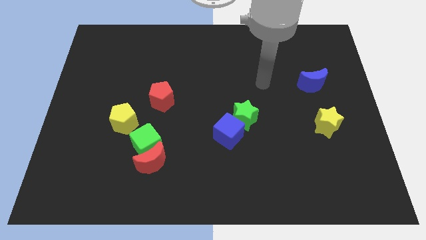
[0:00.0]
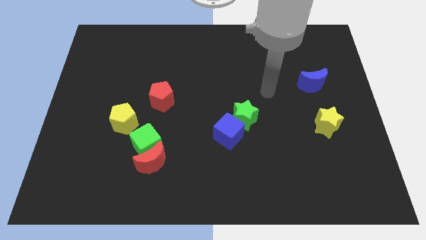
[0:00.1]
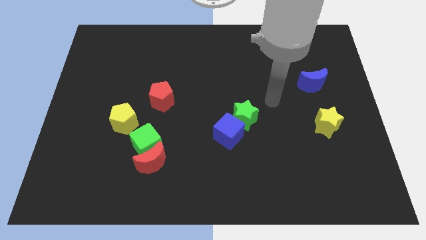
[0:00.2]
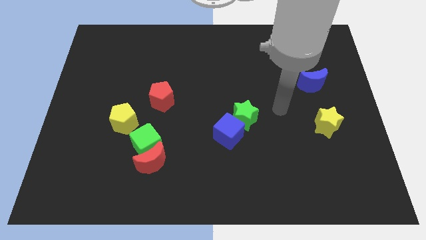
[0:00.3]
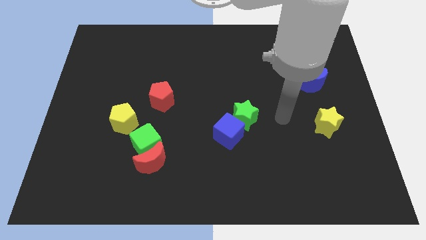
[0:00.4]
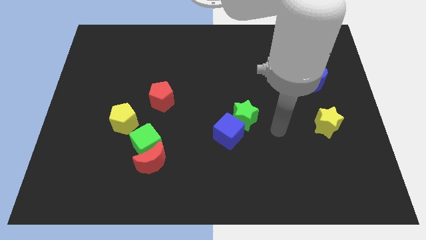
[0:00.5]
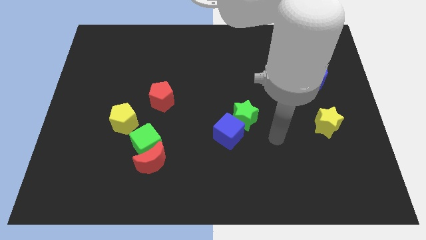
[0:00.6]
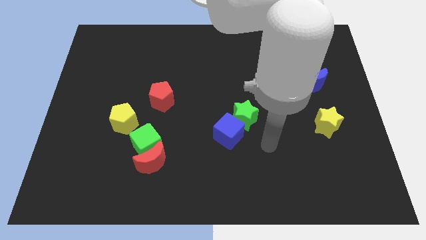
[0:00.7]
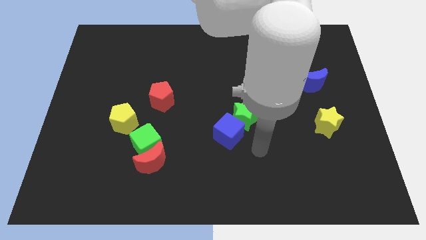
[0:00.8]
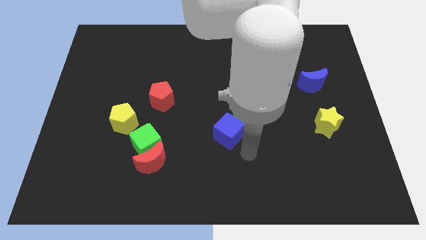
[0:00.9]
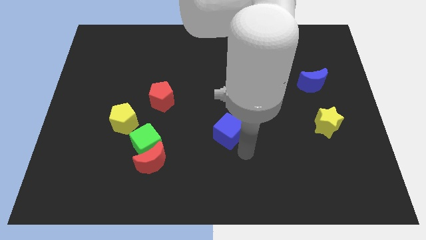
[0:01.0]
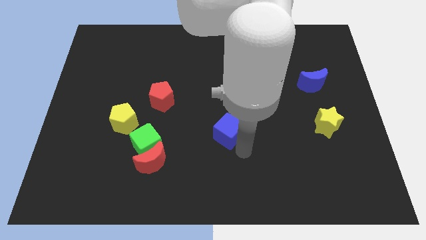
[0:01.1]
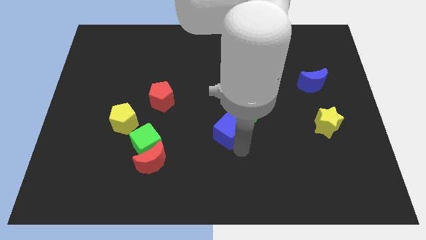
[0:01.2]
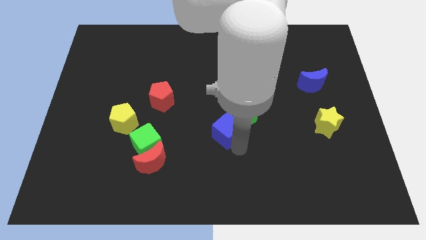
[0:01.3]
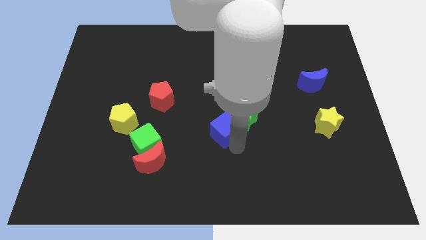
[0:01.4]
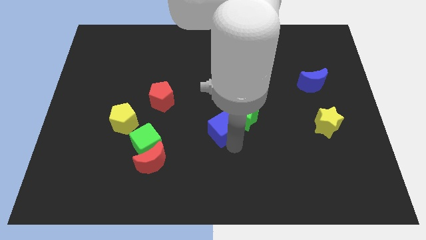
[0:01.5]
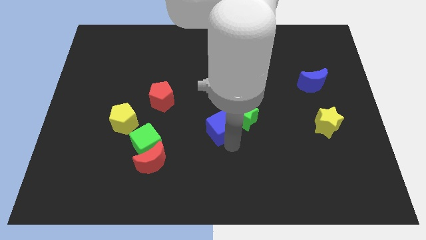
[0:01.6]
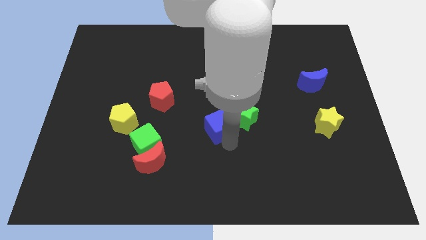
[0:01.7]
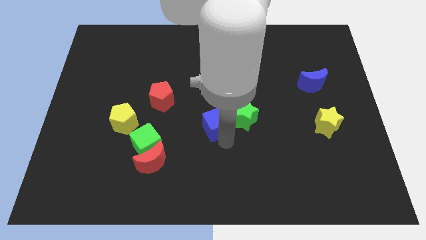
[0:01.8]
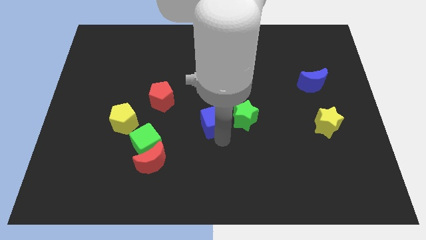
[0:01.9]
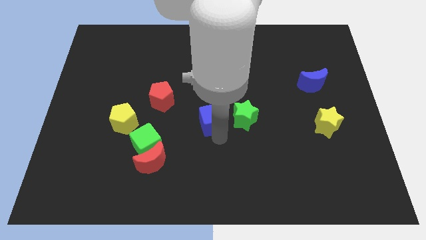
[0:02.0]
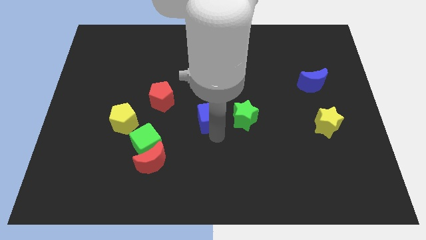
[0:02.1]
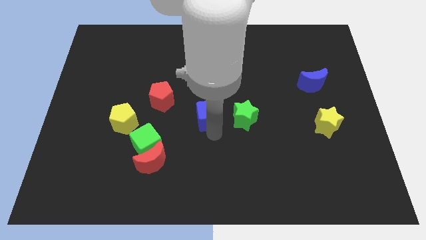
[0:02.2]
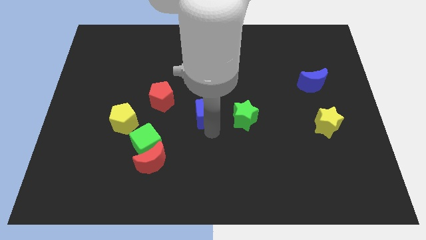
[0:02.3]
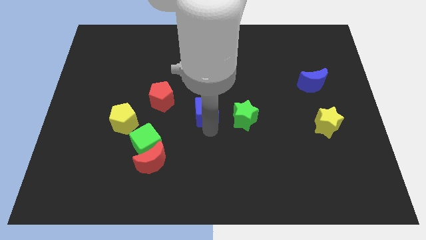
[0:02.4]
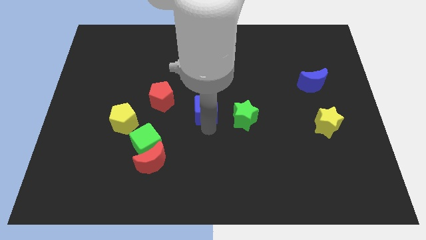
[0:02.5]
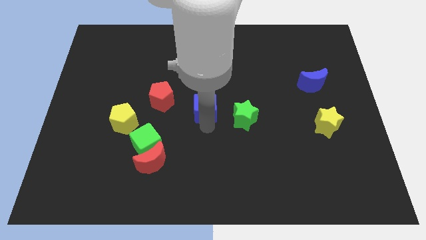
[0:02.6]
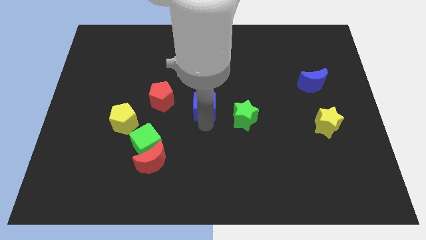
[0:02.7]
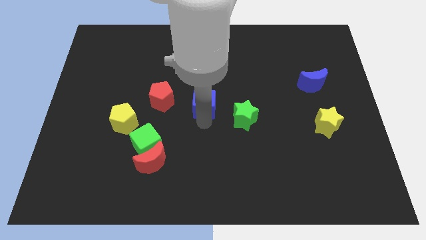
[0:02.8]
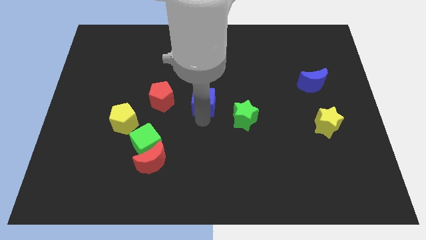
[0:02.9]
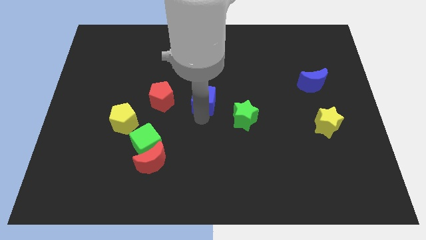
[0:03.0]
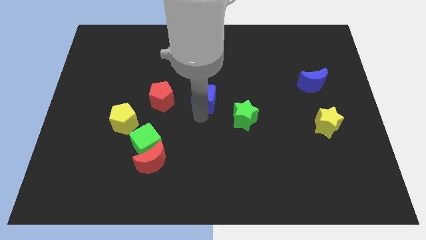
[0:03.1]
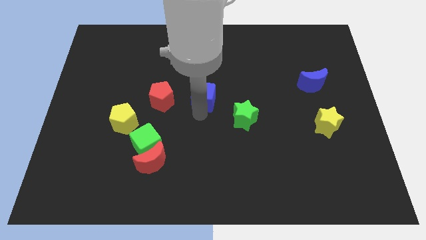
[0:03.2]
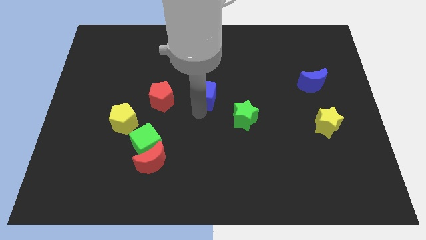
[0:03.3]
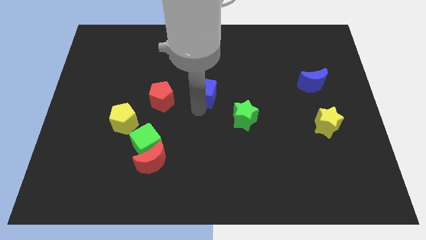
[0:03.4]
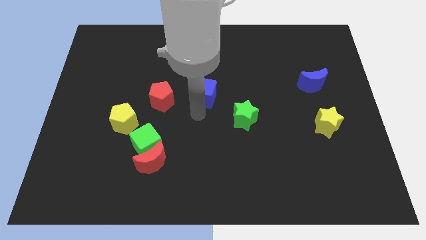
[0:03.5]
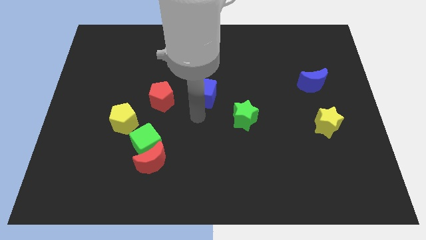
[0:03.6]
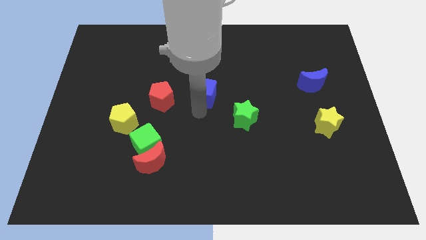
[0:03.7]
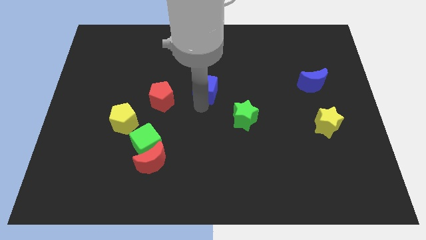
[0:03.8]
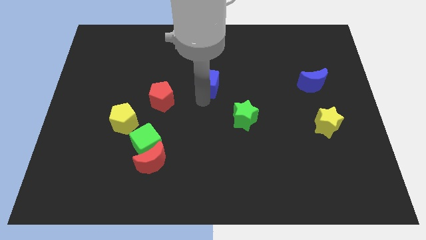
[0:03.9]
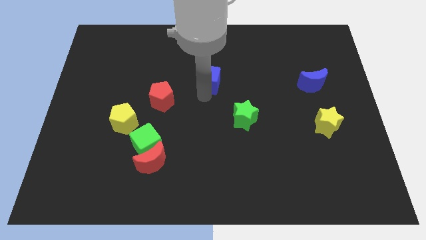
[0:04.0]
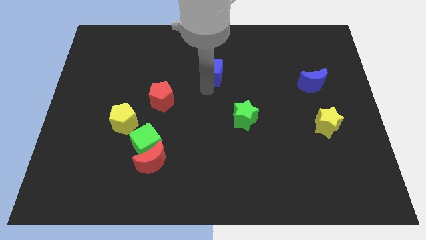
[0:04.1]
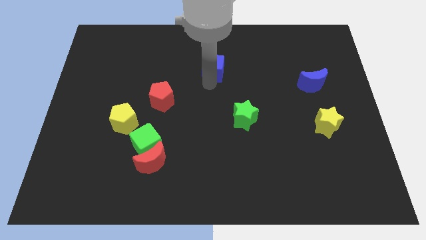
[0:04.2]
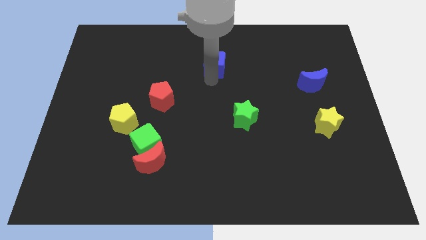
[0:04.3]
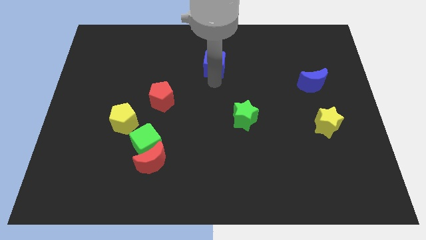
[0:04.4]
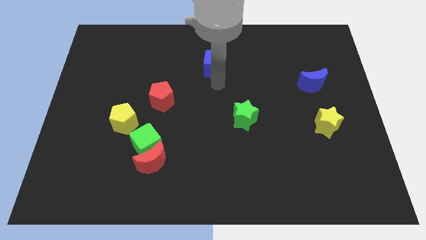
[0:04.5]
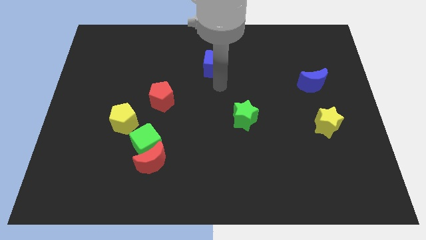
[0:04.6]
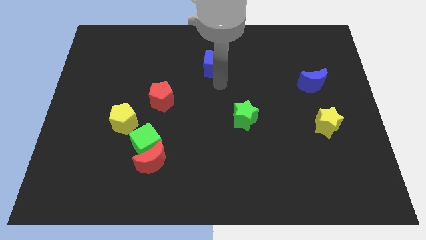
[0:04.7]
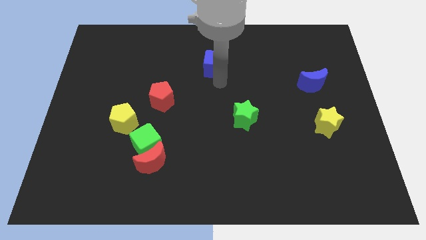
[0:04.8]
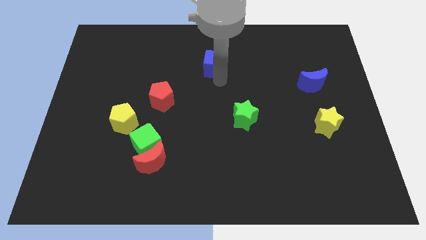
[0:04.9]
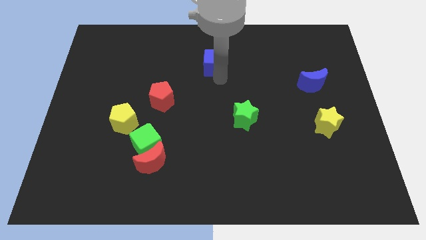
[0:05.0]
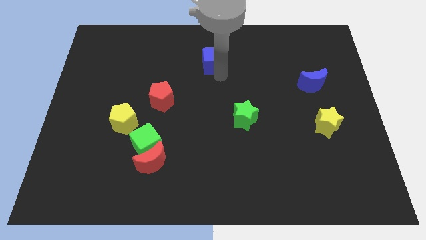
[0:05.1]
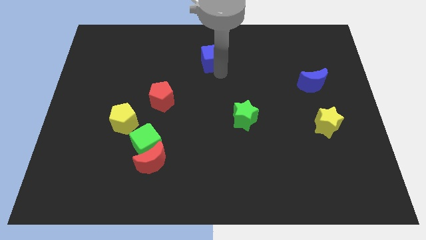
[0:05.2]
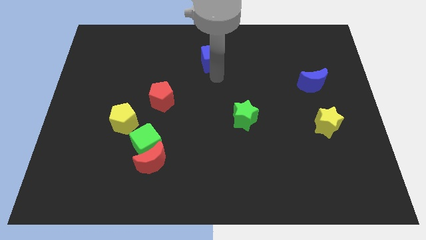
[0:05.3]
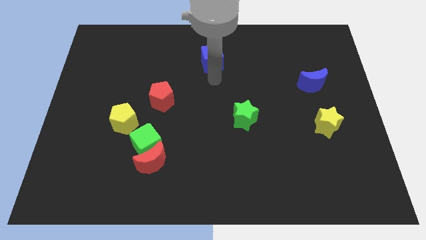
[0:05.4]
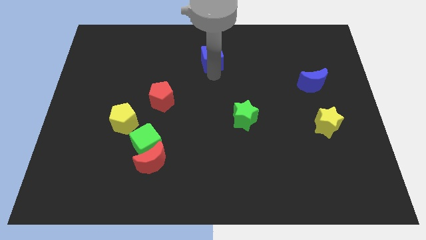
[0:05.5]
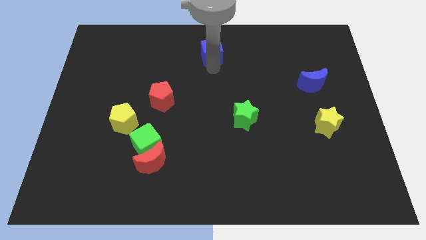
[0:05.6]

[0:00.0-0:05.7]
put the blue cube to the towards your base

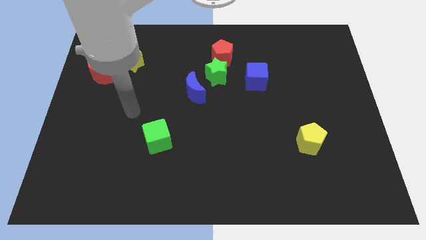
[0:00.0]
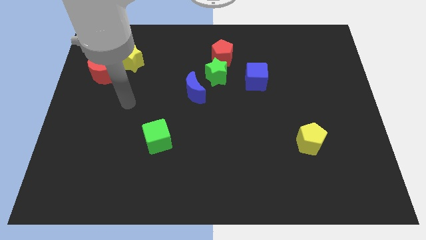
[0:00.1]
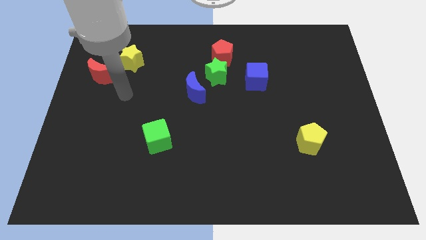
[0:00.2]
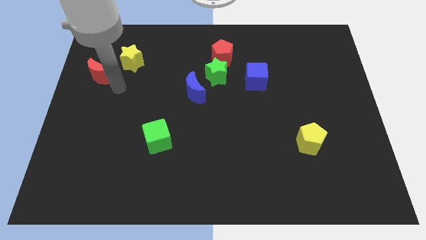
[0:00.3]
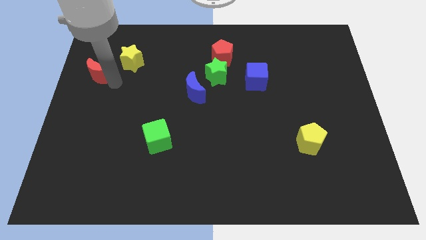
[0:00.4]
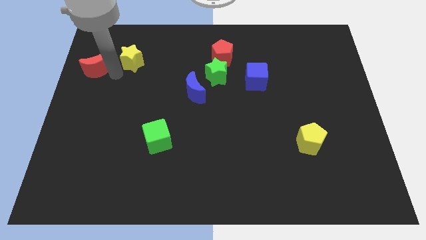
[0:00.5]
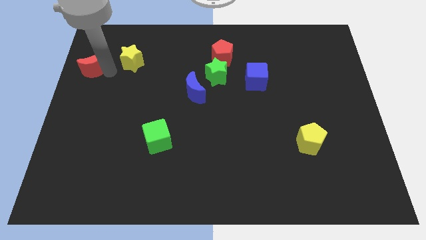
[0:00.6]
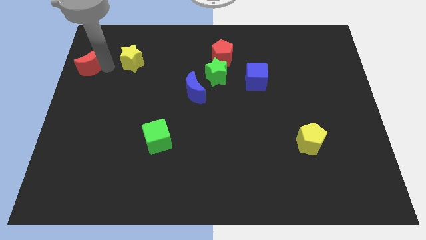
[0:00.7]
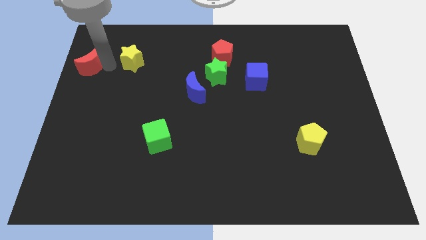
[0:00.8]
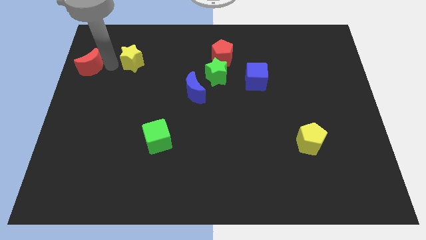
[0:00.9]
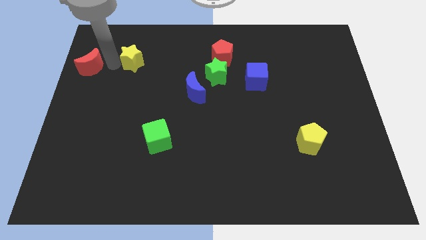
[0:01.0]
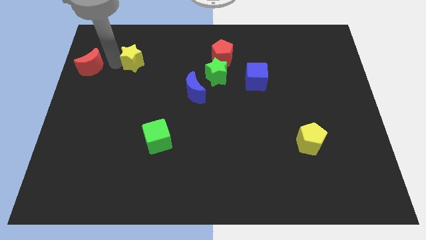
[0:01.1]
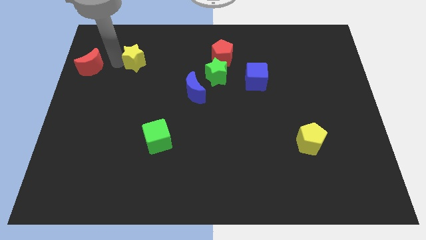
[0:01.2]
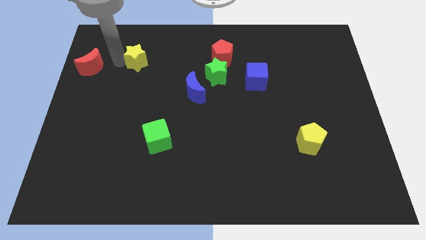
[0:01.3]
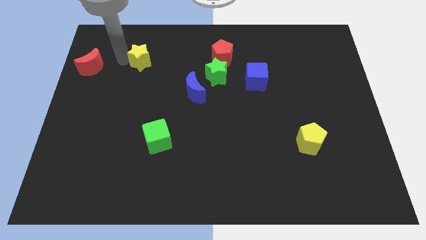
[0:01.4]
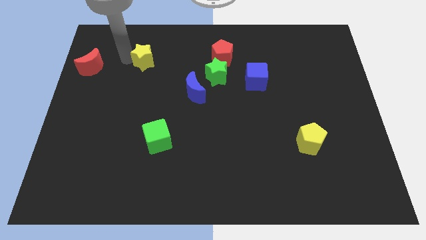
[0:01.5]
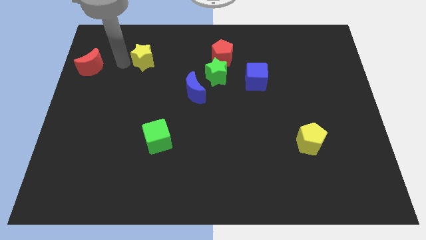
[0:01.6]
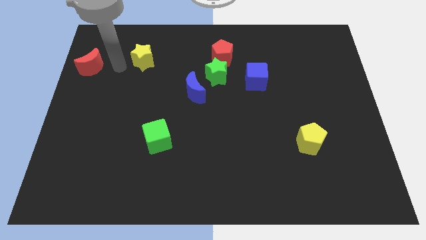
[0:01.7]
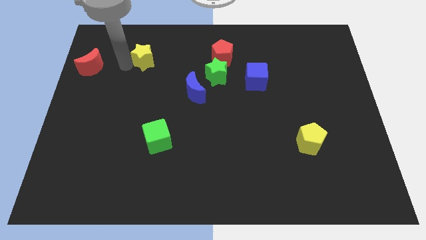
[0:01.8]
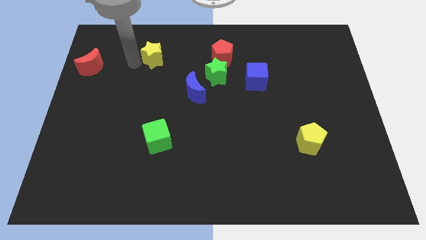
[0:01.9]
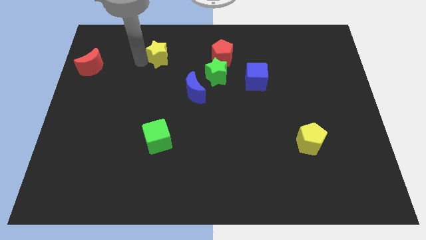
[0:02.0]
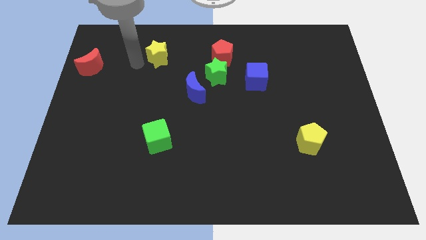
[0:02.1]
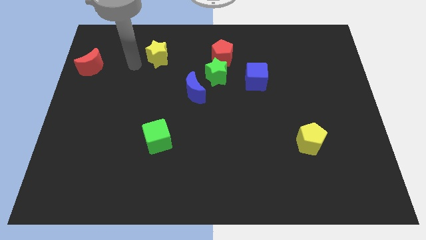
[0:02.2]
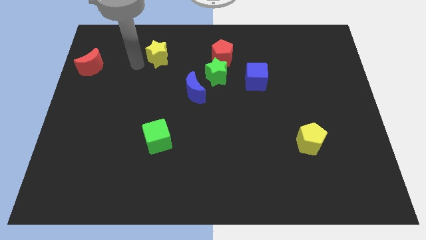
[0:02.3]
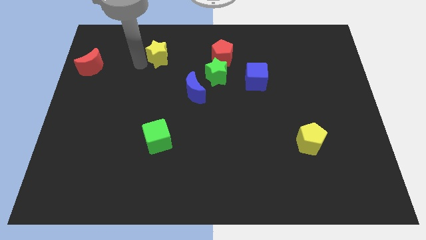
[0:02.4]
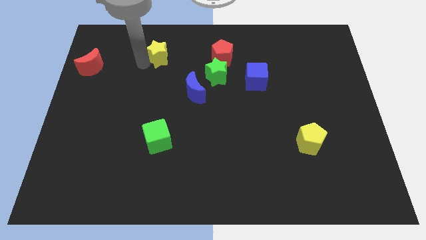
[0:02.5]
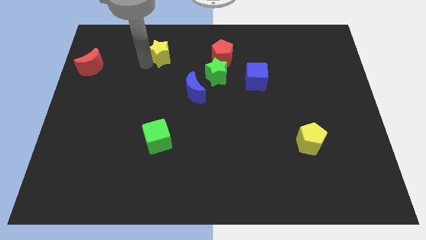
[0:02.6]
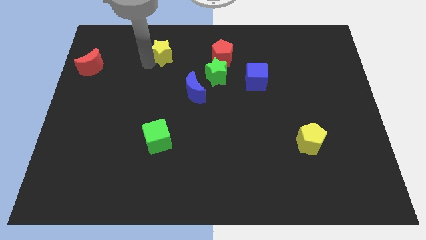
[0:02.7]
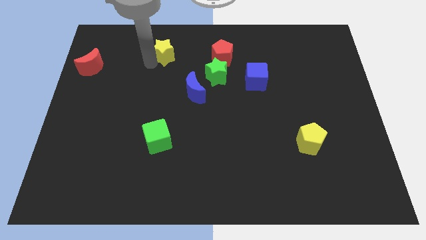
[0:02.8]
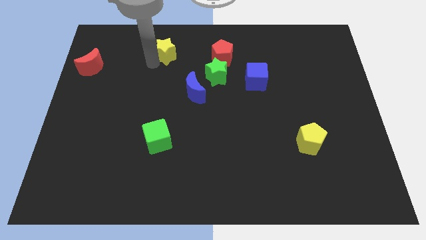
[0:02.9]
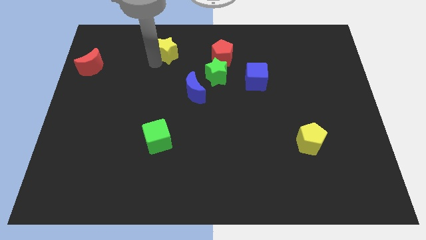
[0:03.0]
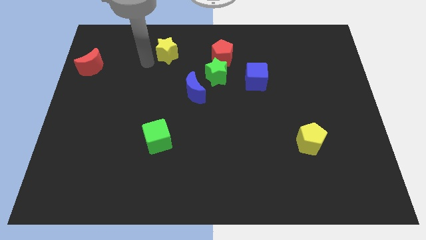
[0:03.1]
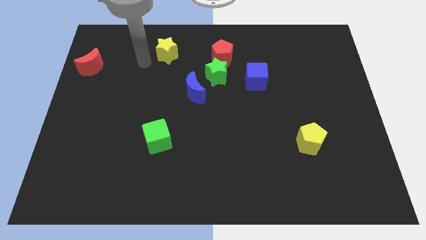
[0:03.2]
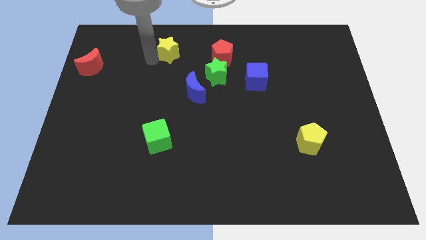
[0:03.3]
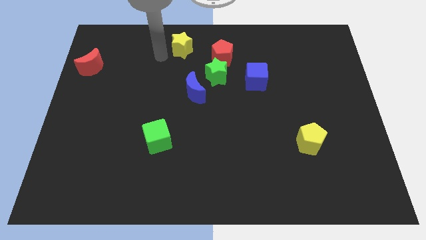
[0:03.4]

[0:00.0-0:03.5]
slide the yellow star to the top side
